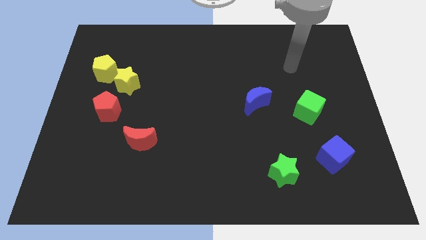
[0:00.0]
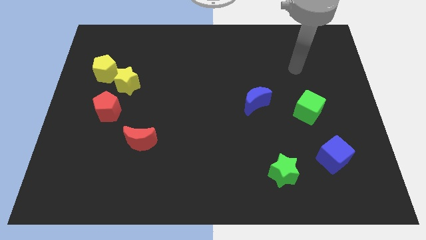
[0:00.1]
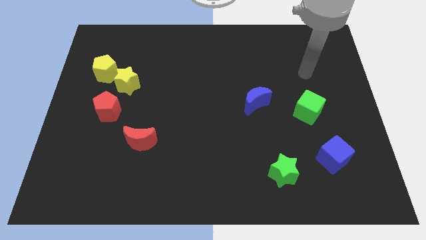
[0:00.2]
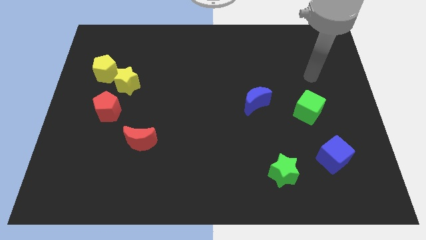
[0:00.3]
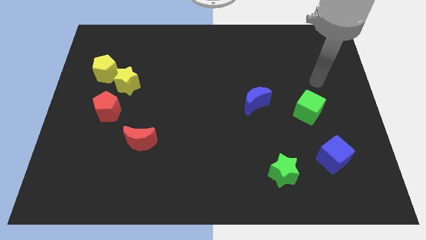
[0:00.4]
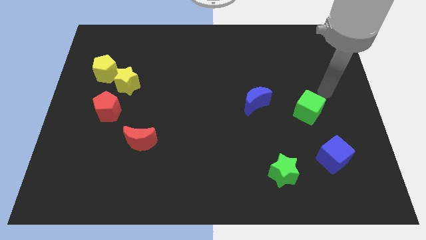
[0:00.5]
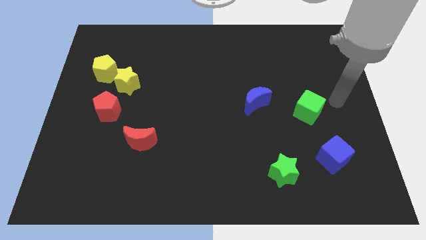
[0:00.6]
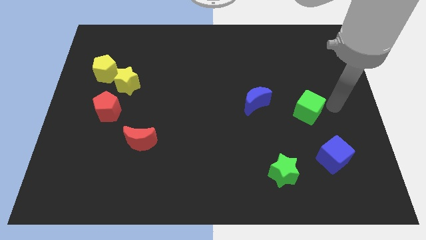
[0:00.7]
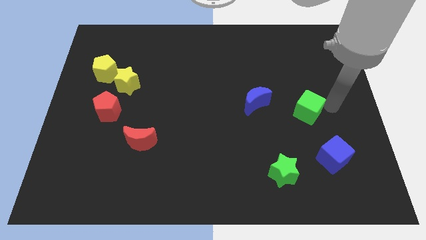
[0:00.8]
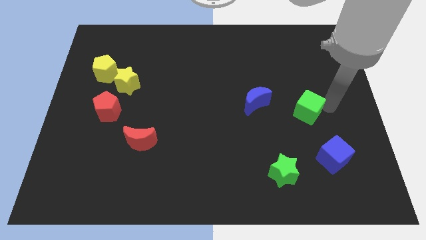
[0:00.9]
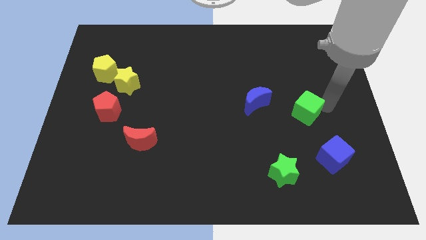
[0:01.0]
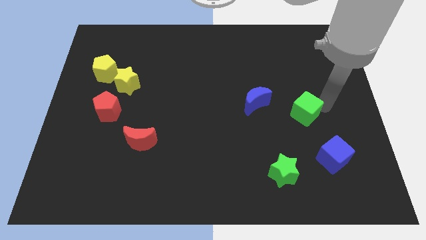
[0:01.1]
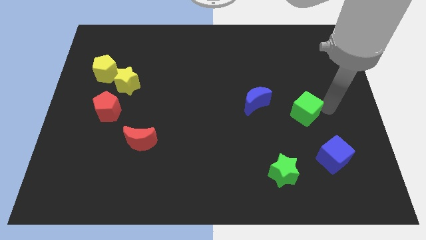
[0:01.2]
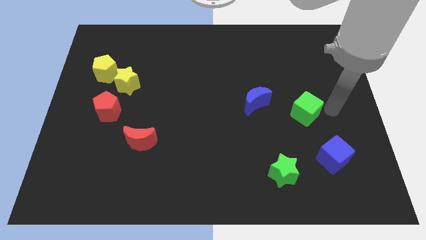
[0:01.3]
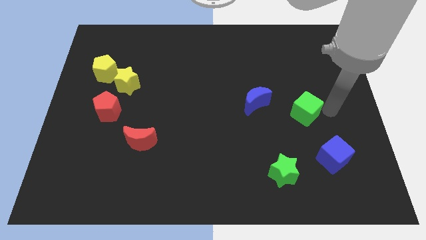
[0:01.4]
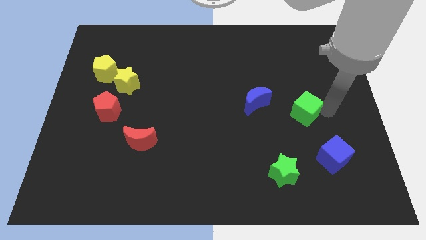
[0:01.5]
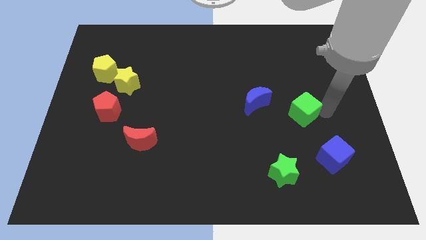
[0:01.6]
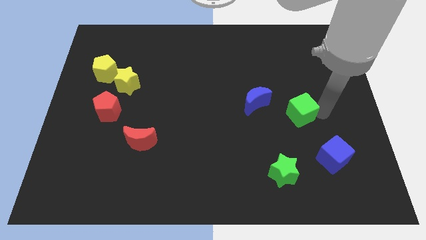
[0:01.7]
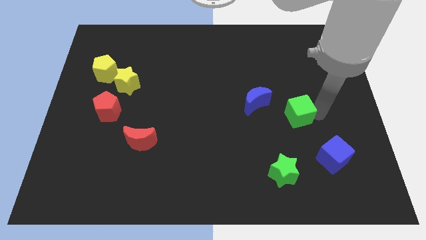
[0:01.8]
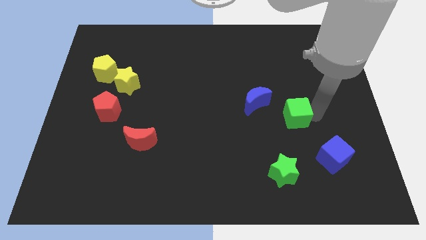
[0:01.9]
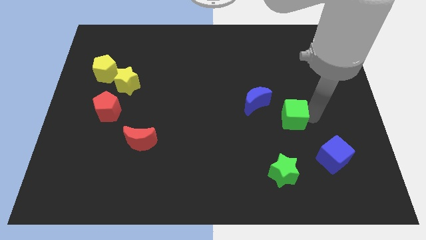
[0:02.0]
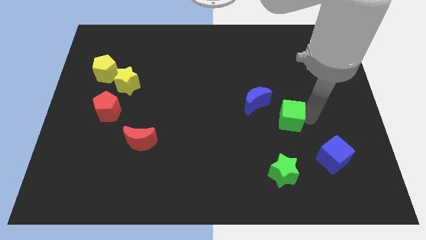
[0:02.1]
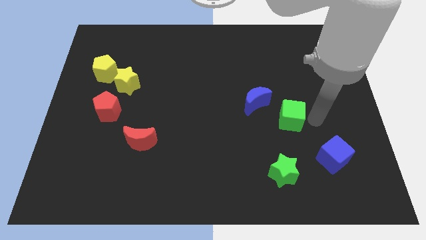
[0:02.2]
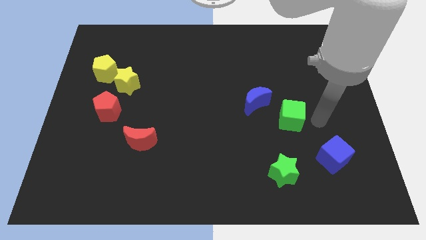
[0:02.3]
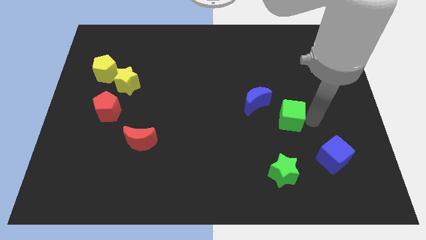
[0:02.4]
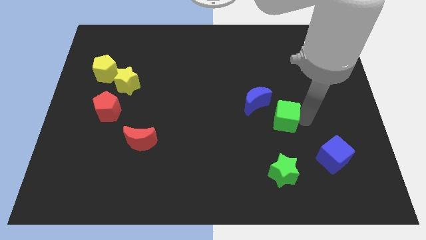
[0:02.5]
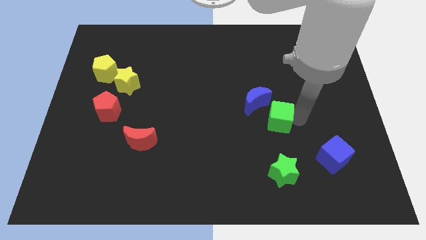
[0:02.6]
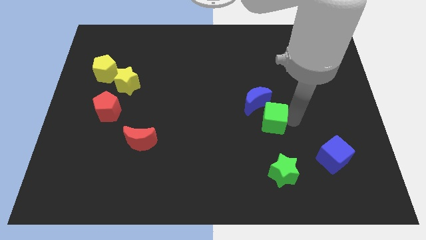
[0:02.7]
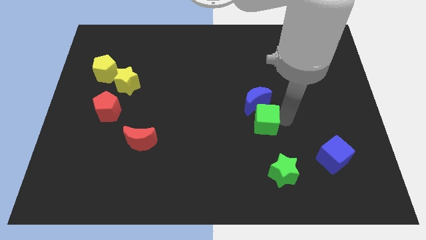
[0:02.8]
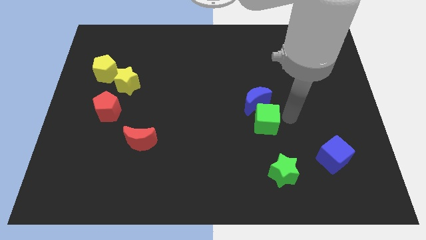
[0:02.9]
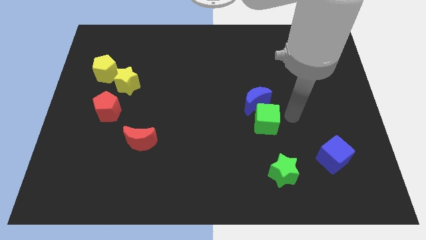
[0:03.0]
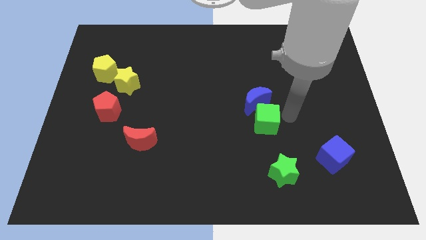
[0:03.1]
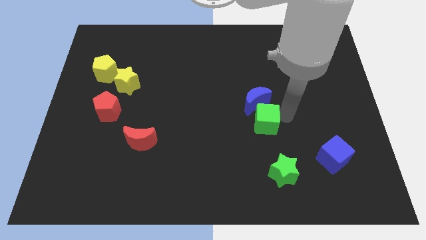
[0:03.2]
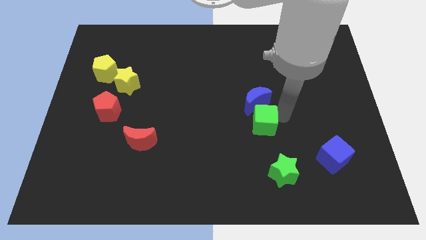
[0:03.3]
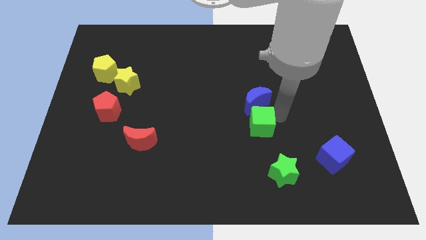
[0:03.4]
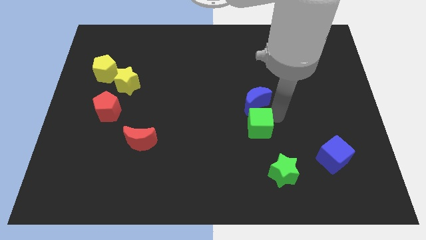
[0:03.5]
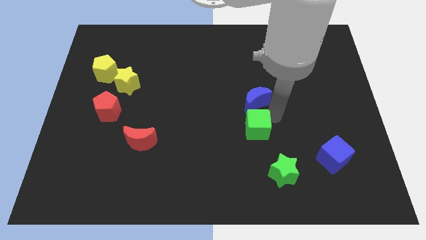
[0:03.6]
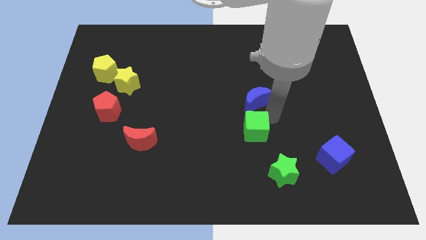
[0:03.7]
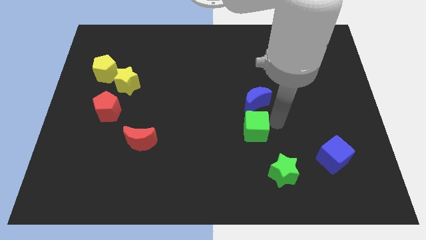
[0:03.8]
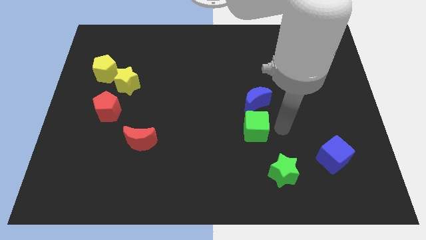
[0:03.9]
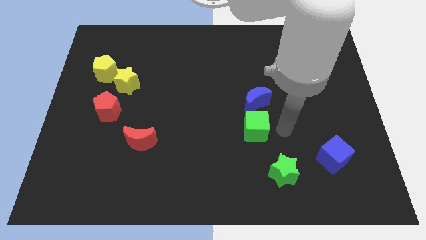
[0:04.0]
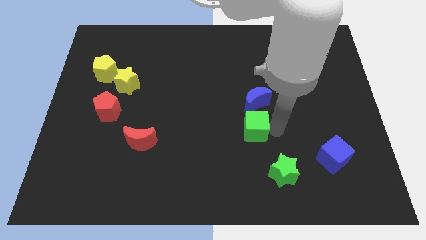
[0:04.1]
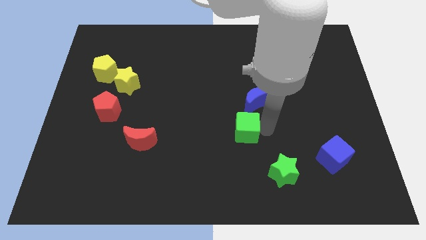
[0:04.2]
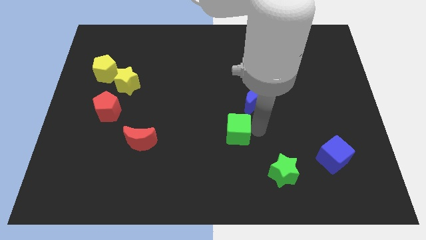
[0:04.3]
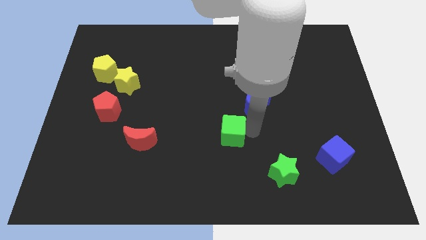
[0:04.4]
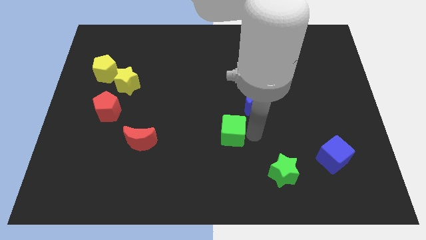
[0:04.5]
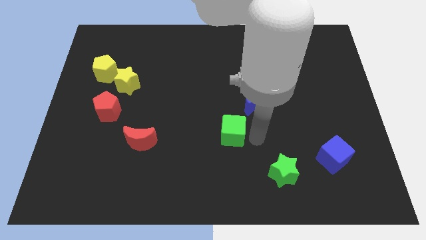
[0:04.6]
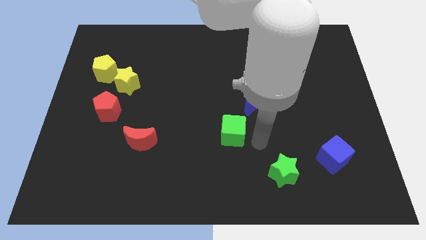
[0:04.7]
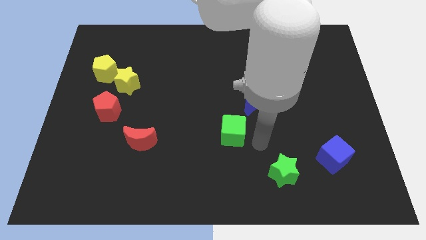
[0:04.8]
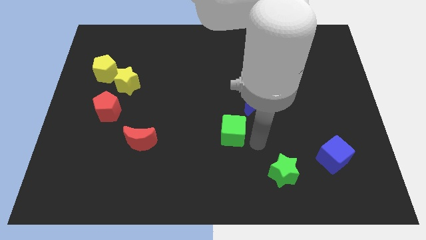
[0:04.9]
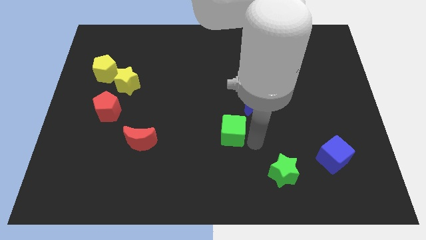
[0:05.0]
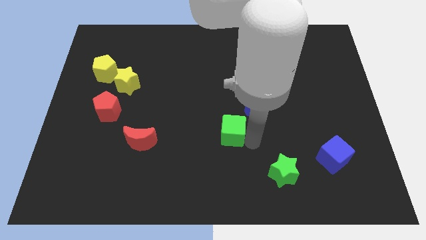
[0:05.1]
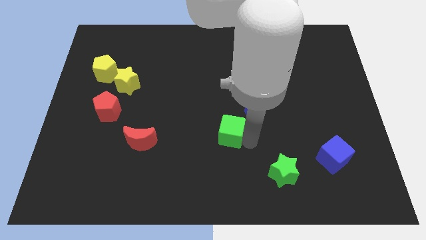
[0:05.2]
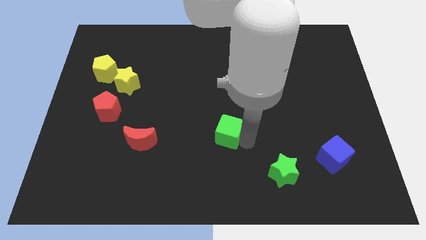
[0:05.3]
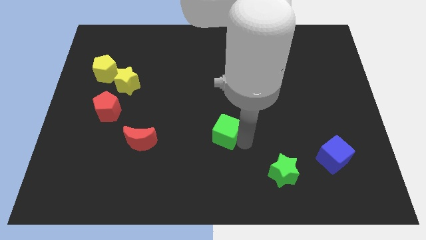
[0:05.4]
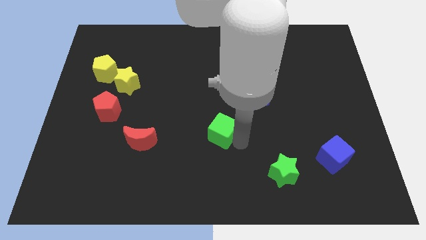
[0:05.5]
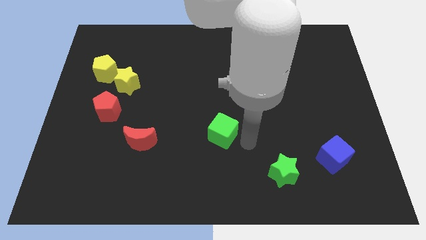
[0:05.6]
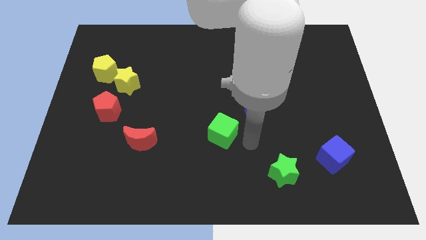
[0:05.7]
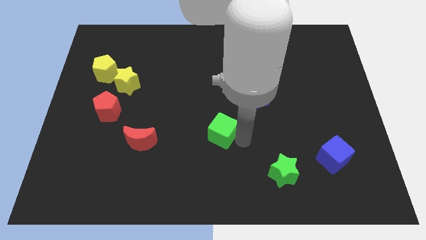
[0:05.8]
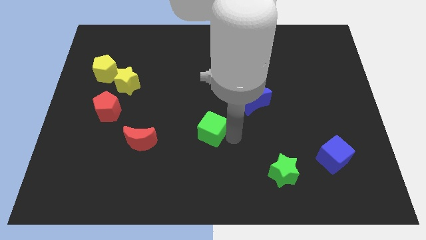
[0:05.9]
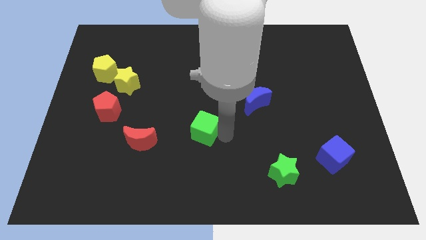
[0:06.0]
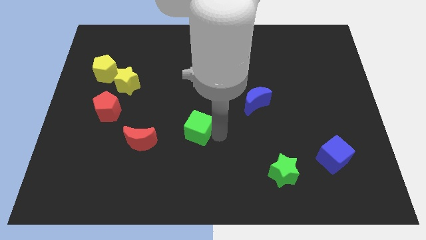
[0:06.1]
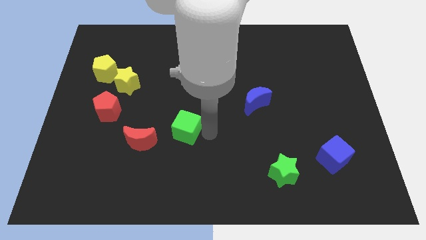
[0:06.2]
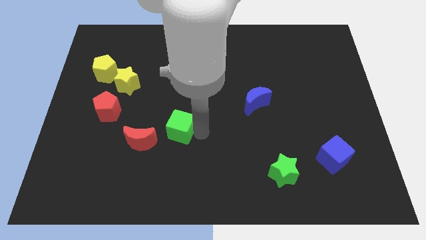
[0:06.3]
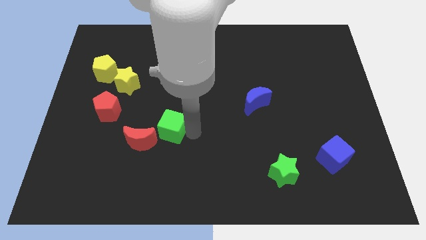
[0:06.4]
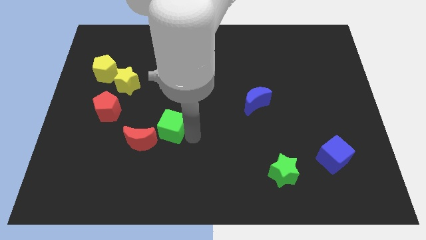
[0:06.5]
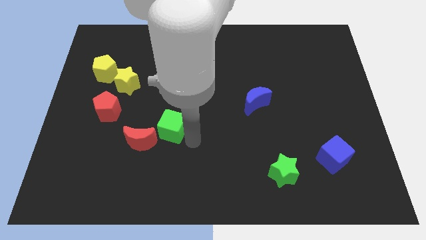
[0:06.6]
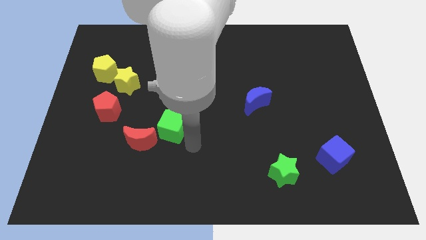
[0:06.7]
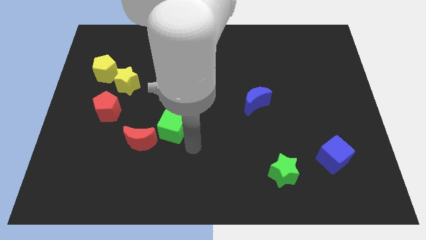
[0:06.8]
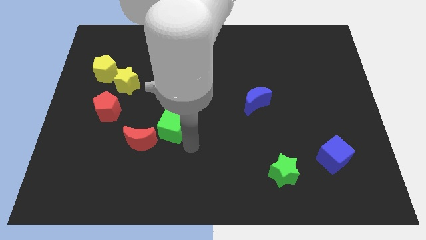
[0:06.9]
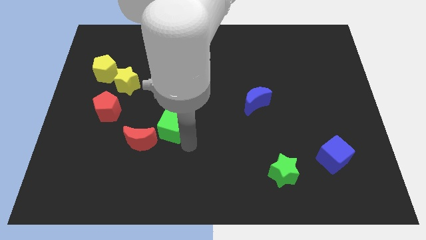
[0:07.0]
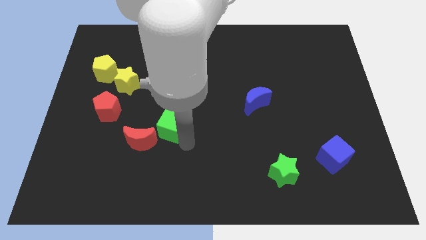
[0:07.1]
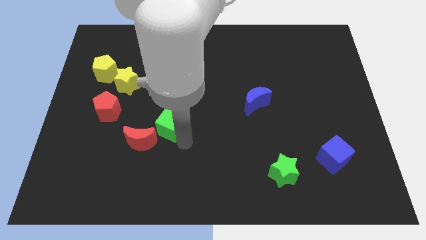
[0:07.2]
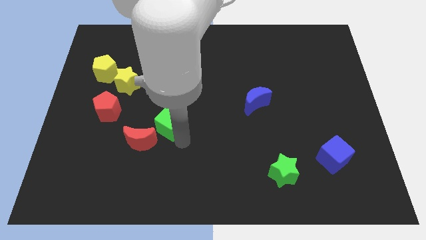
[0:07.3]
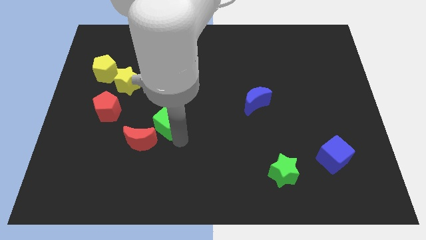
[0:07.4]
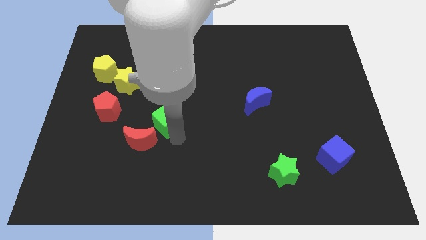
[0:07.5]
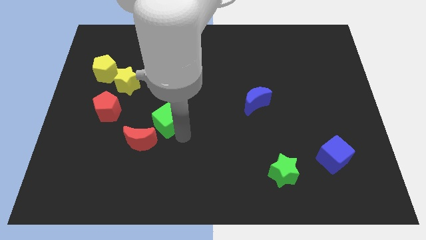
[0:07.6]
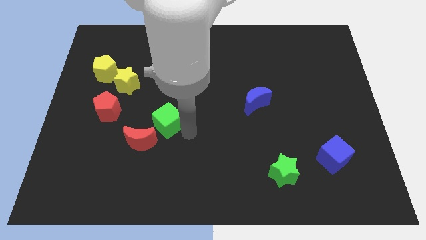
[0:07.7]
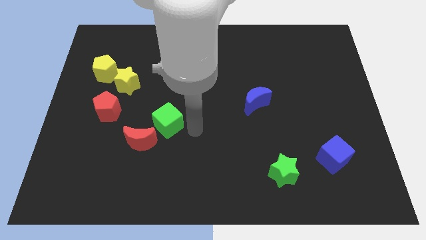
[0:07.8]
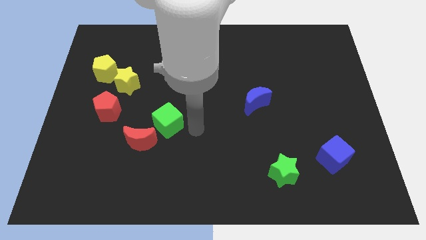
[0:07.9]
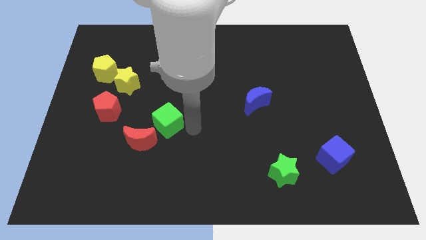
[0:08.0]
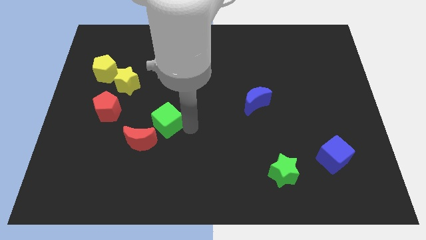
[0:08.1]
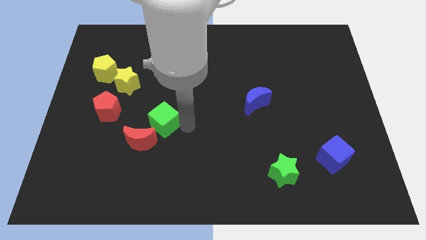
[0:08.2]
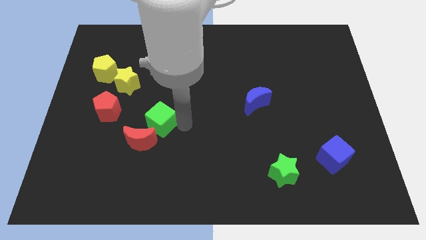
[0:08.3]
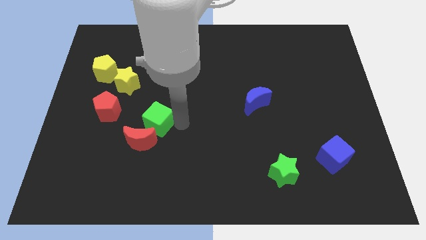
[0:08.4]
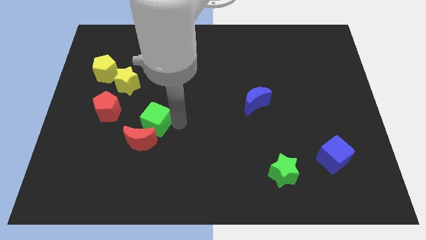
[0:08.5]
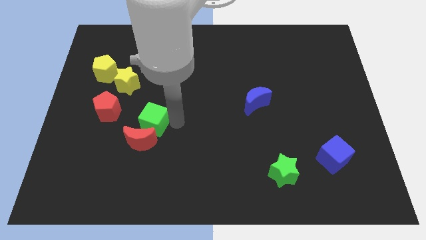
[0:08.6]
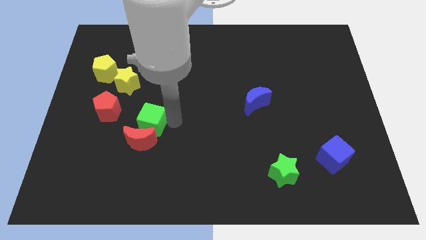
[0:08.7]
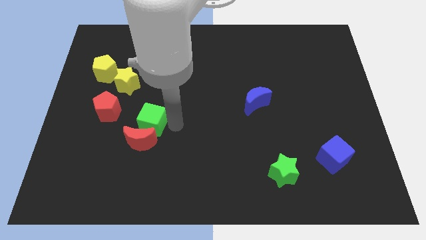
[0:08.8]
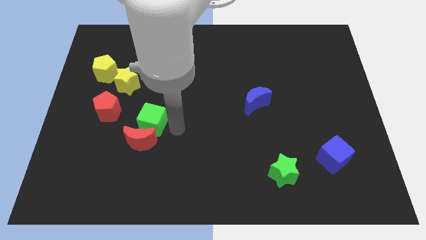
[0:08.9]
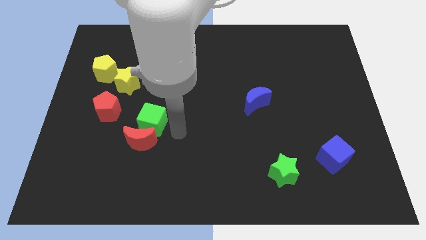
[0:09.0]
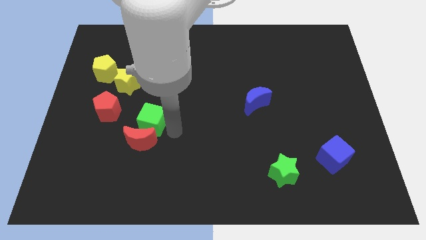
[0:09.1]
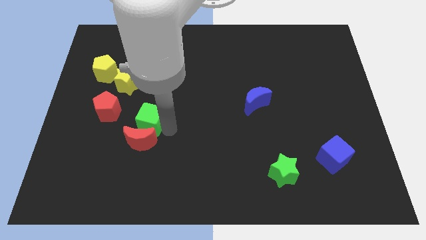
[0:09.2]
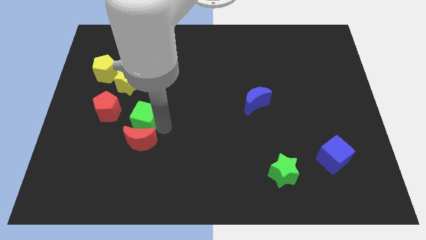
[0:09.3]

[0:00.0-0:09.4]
push the green cube to the top left side of the red moon
